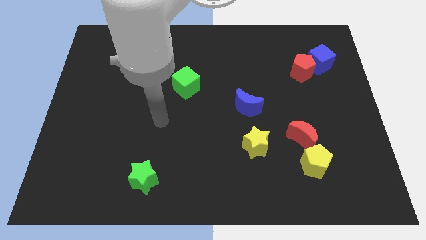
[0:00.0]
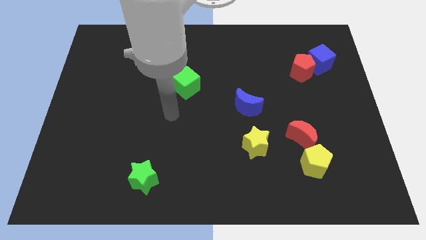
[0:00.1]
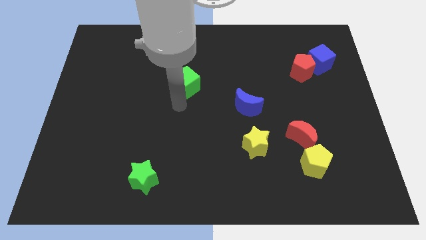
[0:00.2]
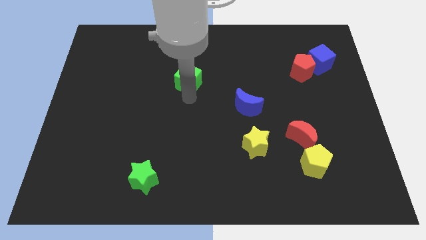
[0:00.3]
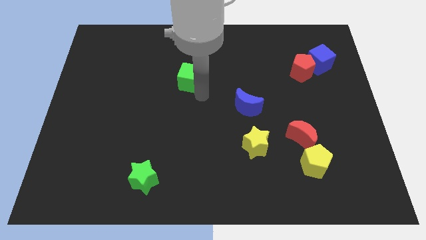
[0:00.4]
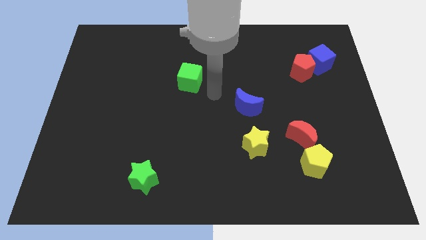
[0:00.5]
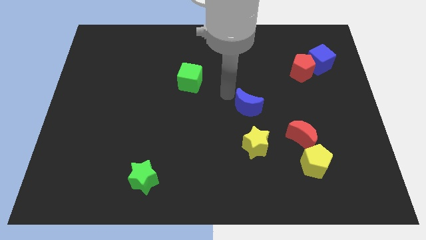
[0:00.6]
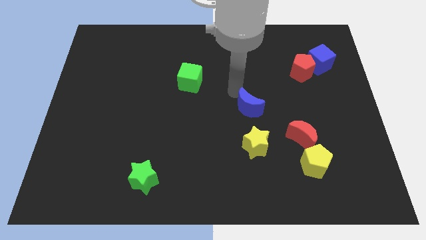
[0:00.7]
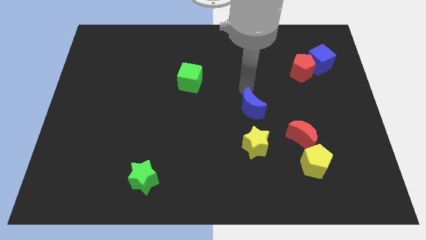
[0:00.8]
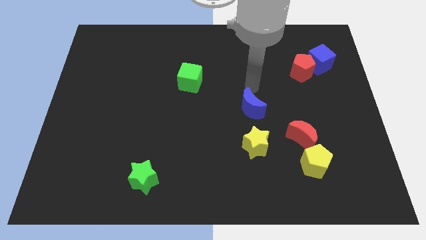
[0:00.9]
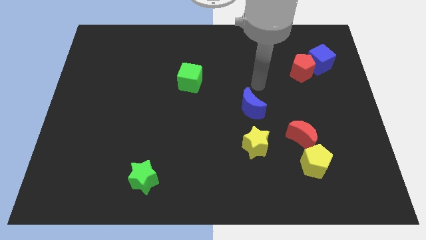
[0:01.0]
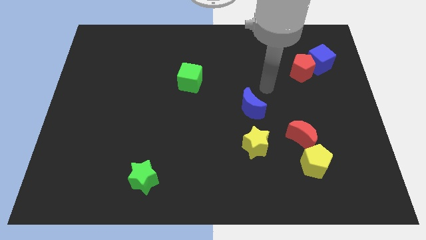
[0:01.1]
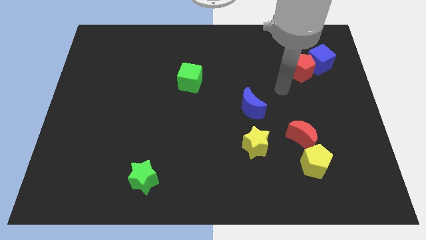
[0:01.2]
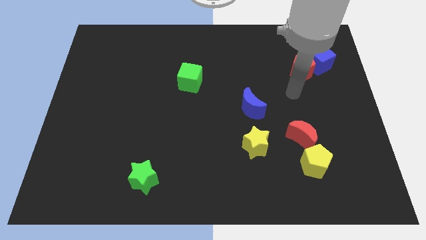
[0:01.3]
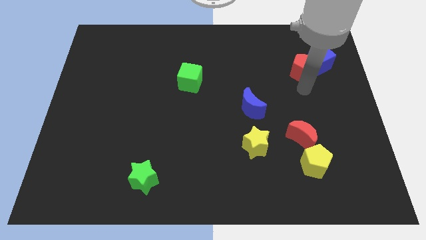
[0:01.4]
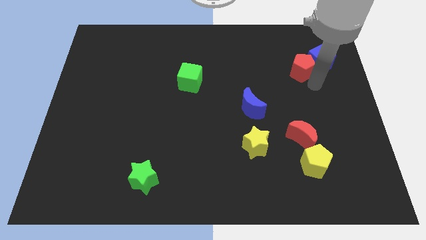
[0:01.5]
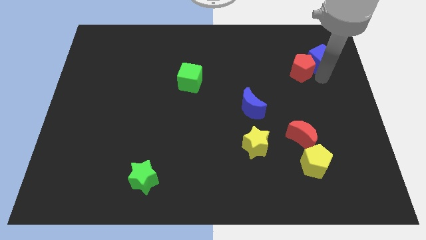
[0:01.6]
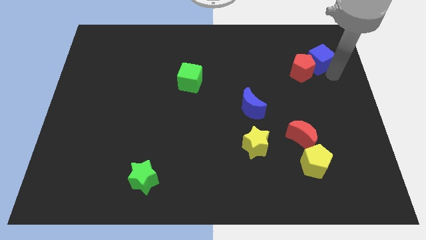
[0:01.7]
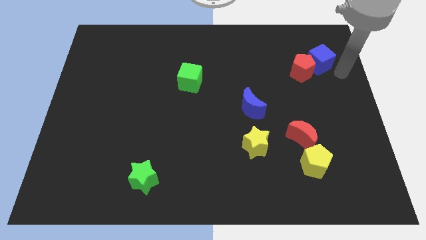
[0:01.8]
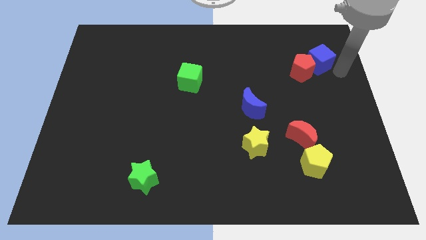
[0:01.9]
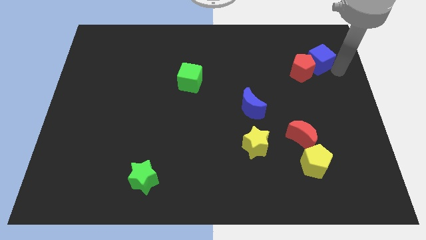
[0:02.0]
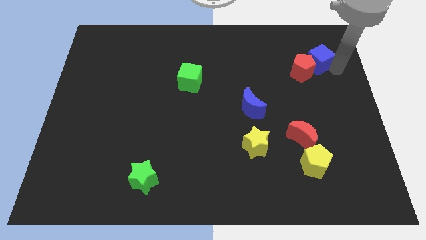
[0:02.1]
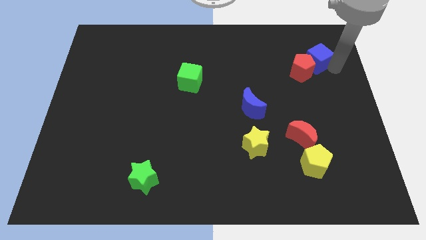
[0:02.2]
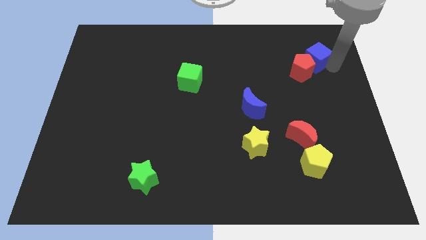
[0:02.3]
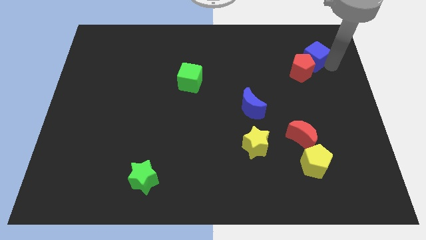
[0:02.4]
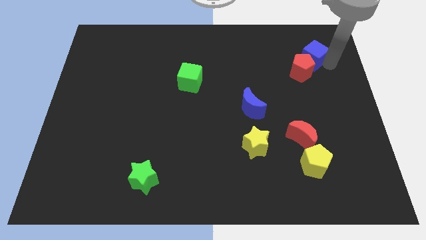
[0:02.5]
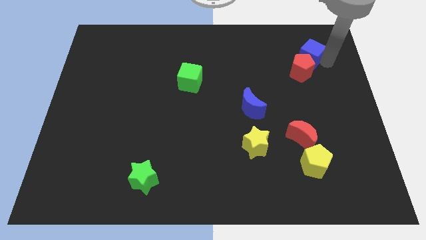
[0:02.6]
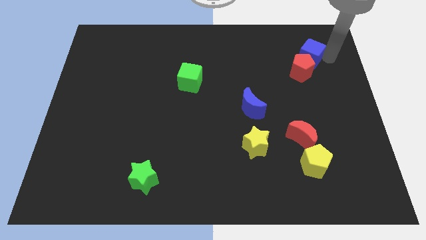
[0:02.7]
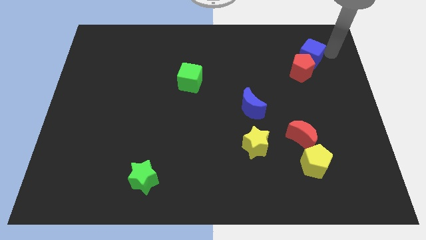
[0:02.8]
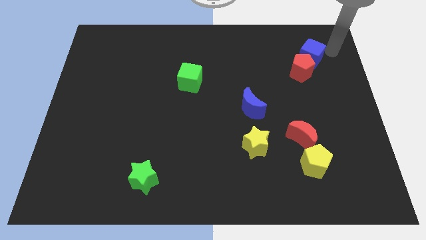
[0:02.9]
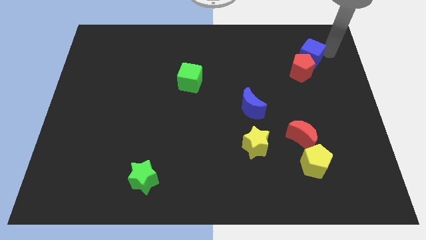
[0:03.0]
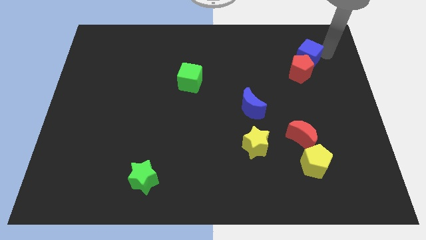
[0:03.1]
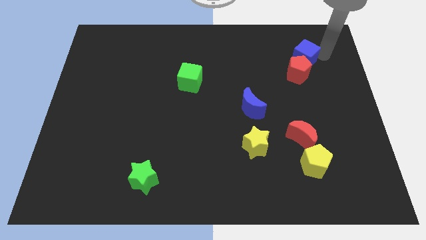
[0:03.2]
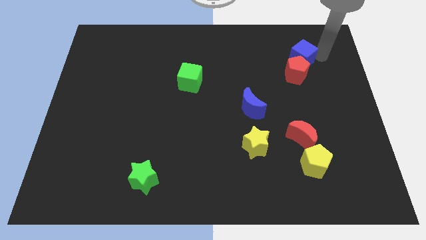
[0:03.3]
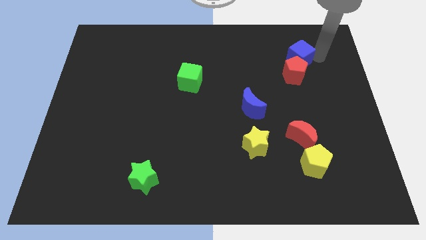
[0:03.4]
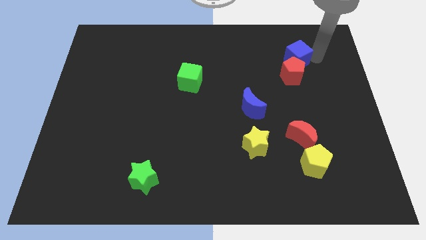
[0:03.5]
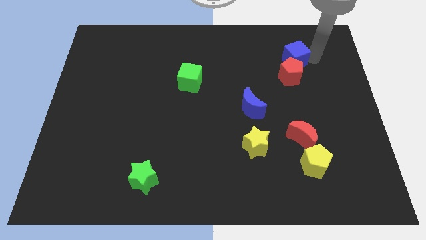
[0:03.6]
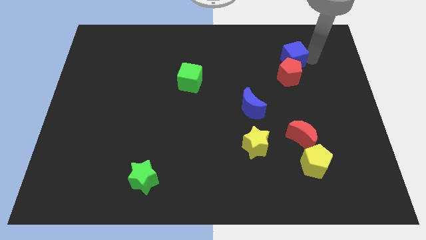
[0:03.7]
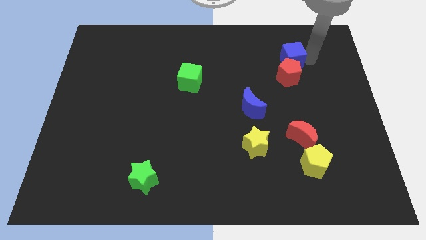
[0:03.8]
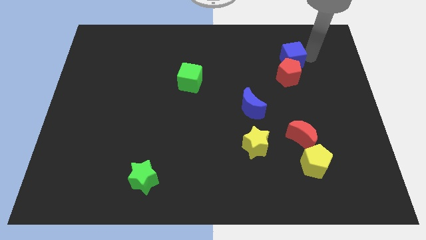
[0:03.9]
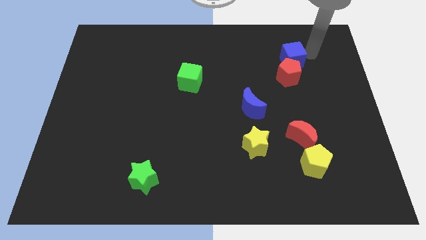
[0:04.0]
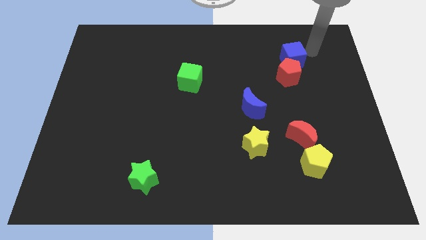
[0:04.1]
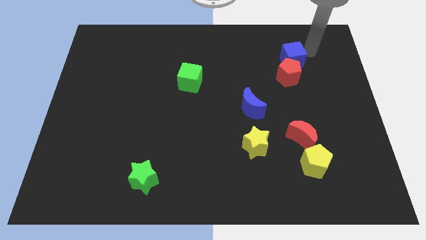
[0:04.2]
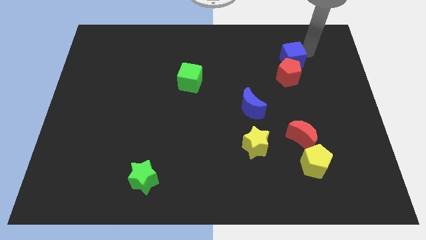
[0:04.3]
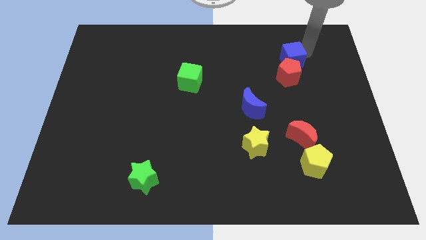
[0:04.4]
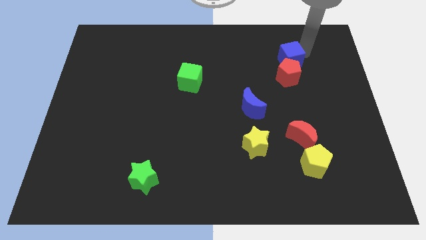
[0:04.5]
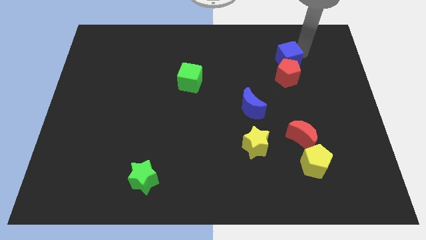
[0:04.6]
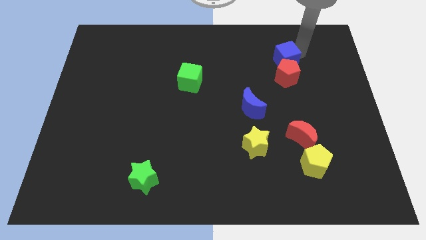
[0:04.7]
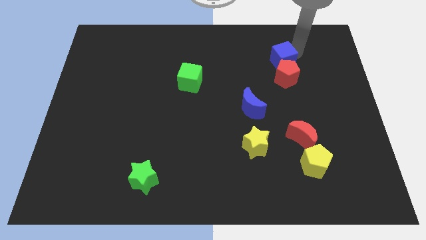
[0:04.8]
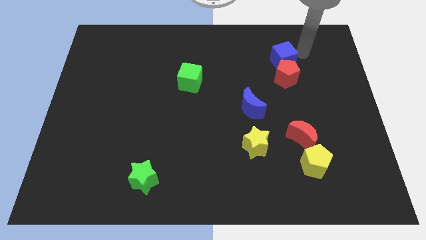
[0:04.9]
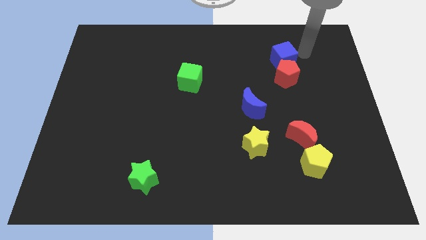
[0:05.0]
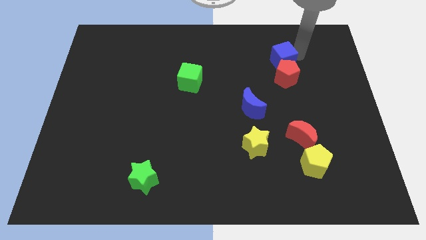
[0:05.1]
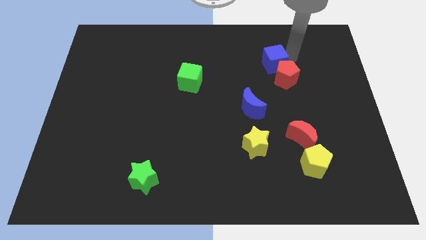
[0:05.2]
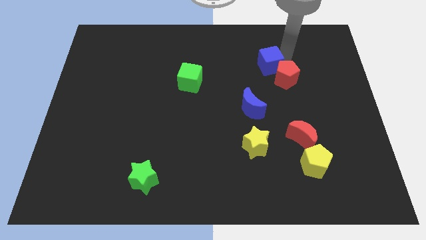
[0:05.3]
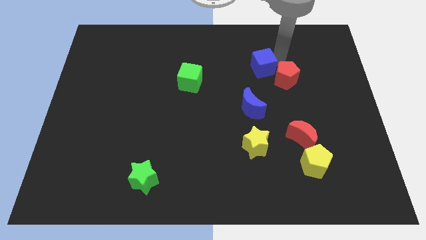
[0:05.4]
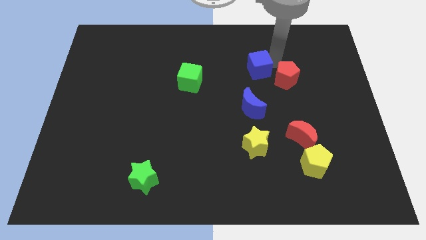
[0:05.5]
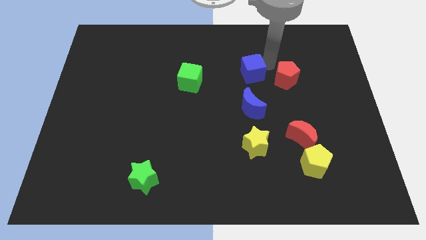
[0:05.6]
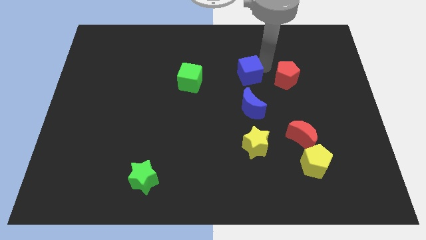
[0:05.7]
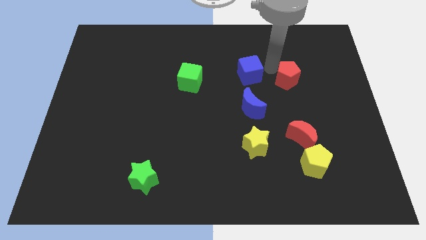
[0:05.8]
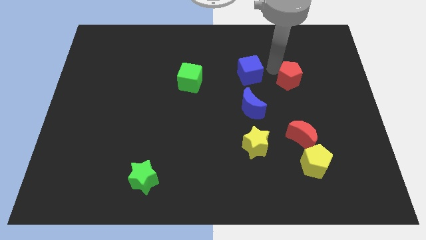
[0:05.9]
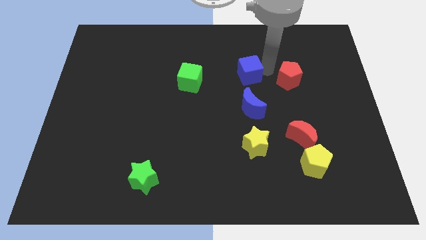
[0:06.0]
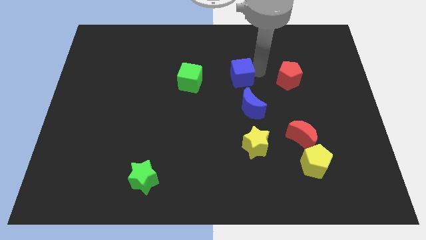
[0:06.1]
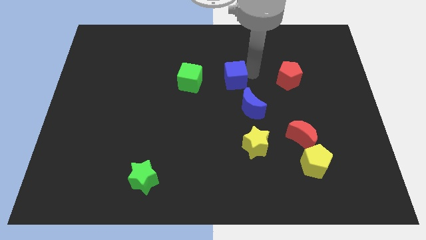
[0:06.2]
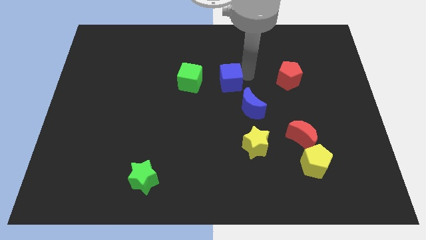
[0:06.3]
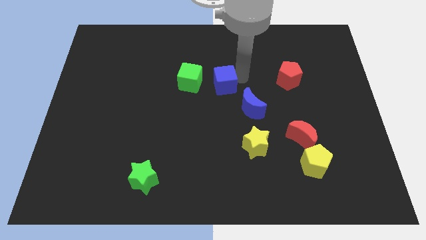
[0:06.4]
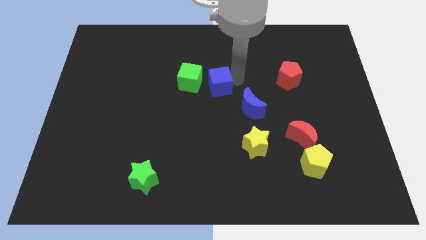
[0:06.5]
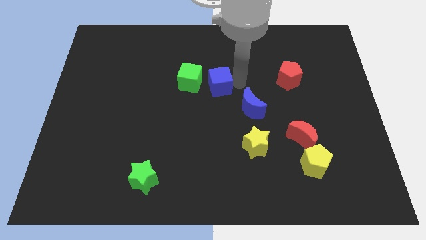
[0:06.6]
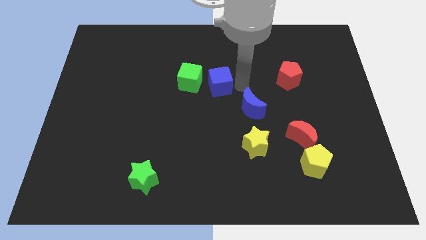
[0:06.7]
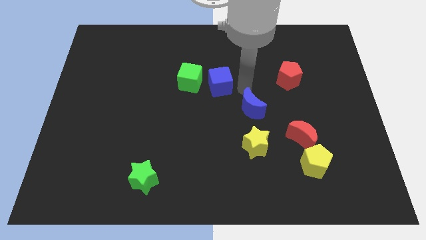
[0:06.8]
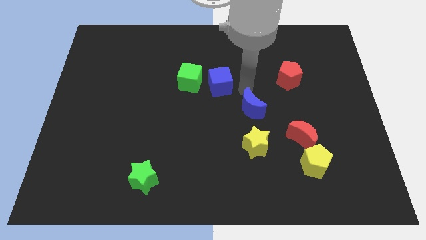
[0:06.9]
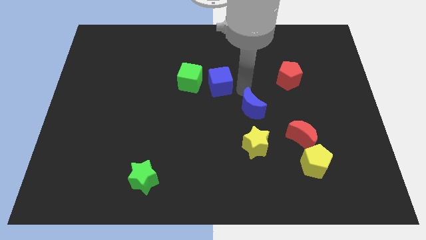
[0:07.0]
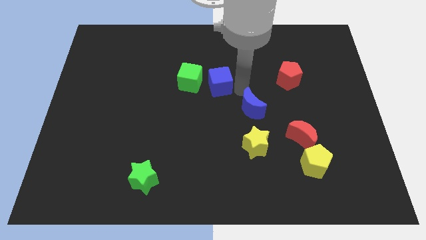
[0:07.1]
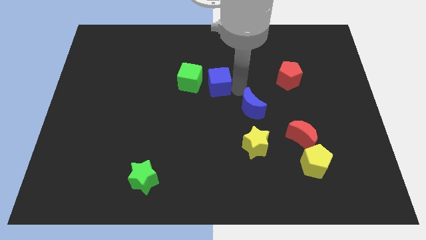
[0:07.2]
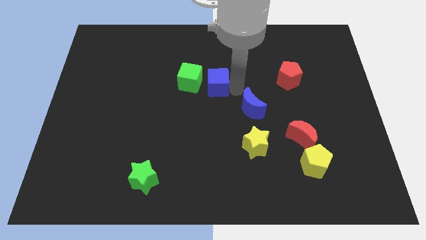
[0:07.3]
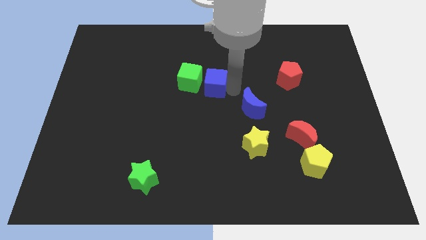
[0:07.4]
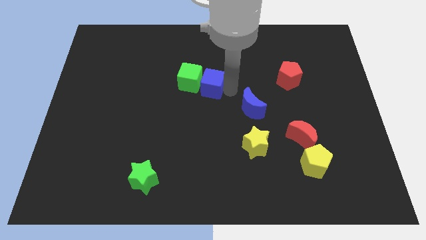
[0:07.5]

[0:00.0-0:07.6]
push the blue cube towards the green cube

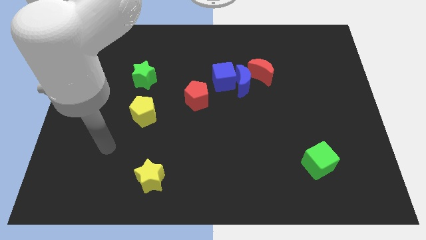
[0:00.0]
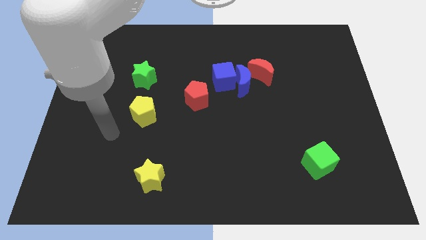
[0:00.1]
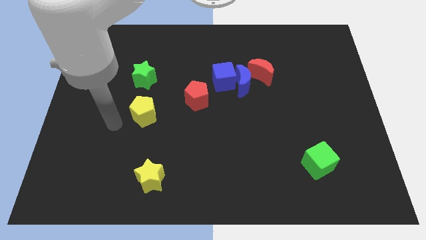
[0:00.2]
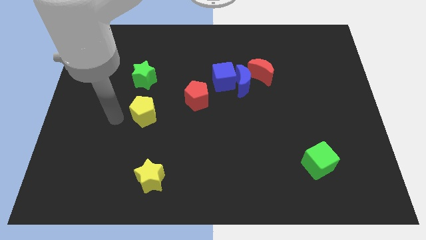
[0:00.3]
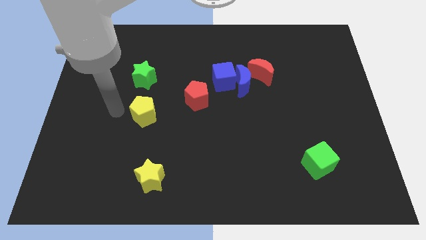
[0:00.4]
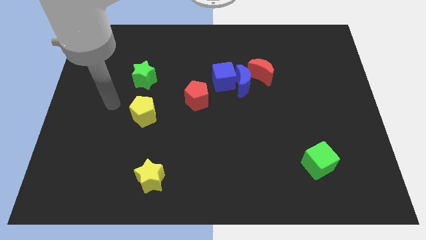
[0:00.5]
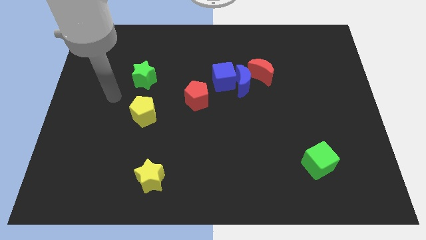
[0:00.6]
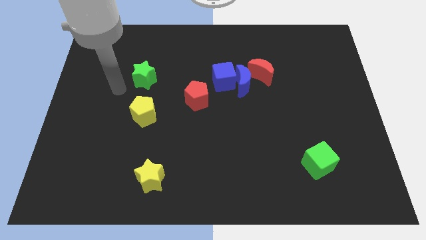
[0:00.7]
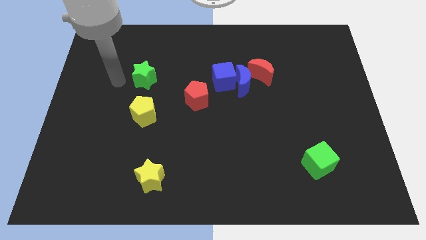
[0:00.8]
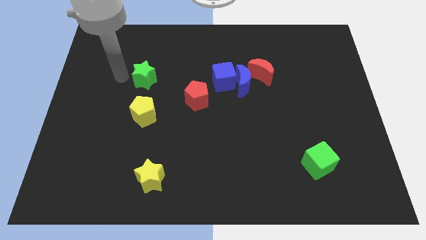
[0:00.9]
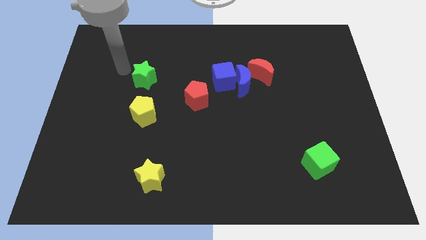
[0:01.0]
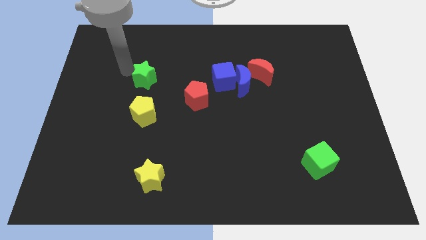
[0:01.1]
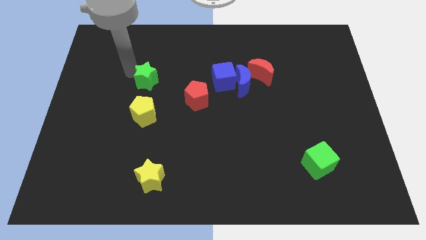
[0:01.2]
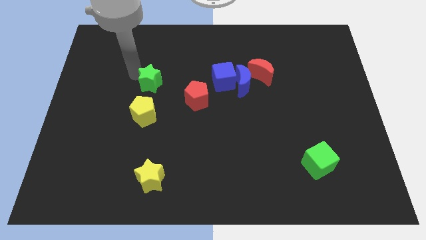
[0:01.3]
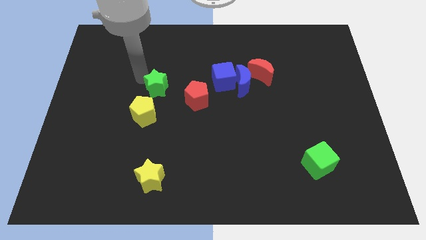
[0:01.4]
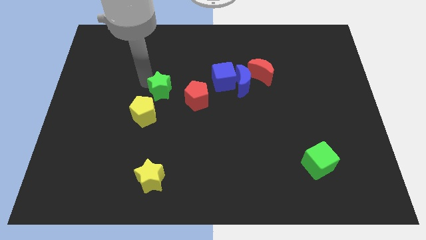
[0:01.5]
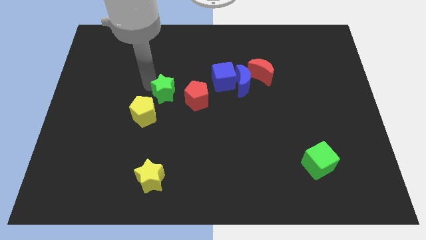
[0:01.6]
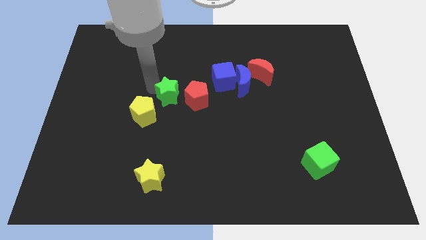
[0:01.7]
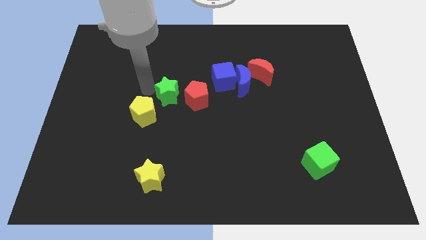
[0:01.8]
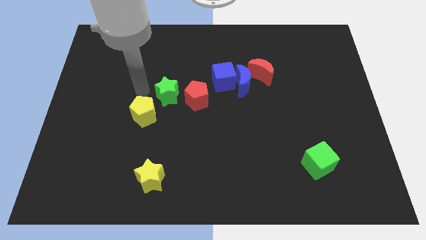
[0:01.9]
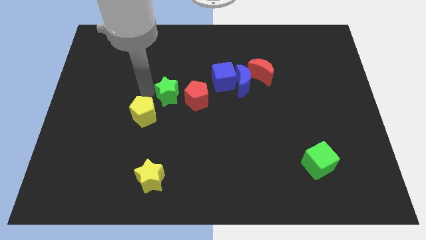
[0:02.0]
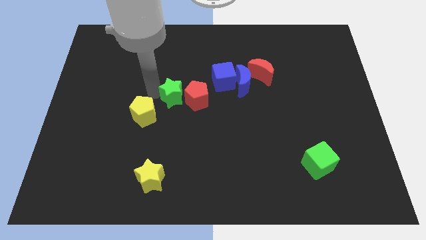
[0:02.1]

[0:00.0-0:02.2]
slide the green star towards the red pentagon
